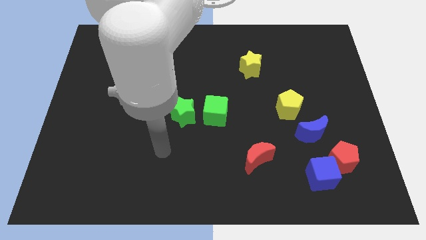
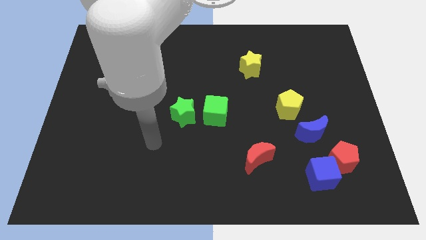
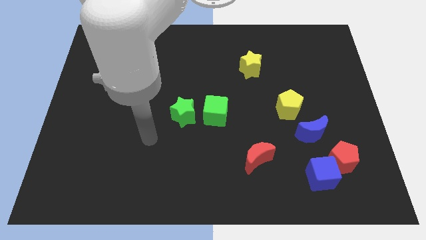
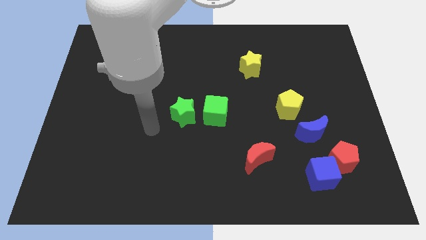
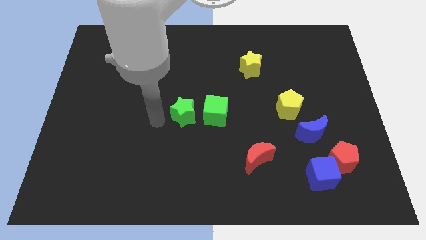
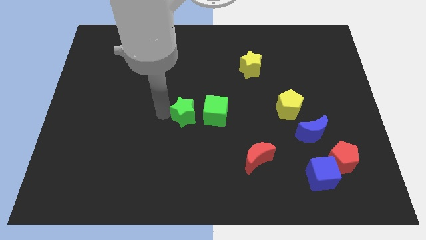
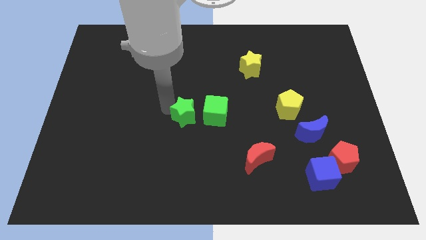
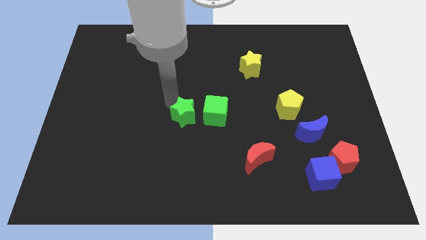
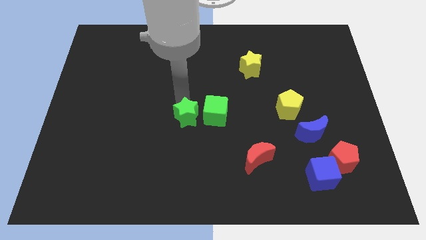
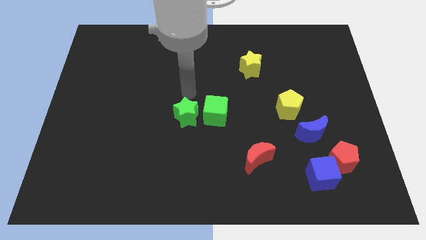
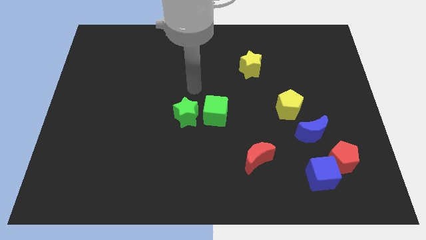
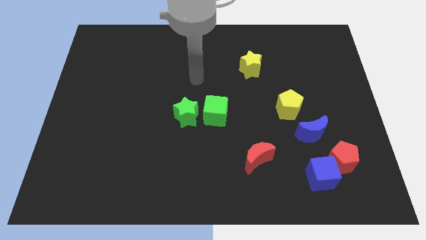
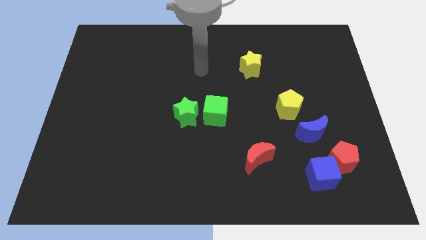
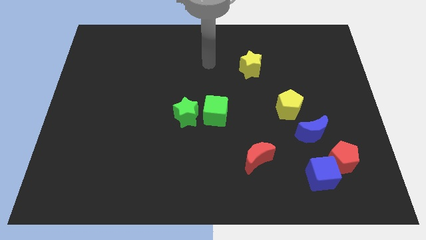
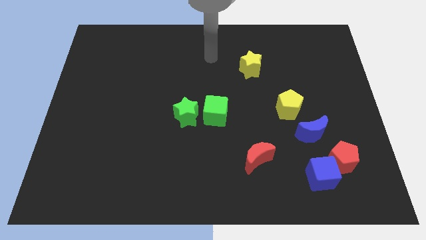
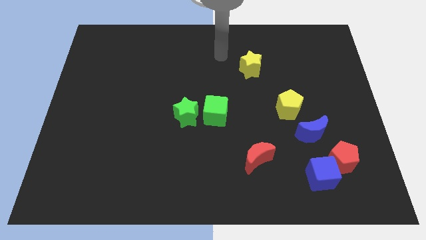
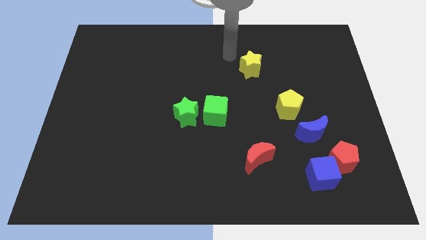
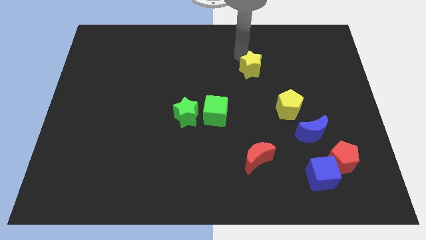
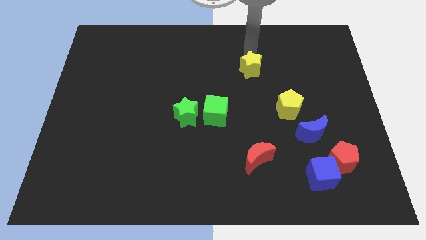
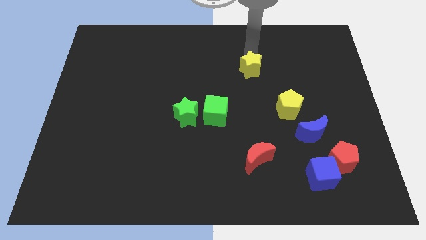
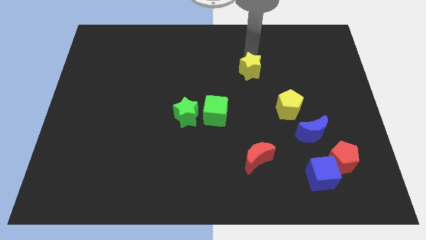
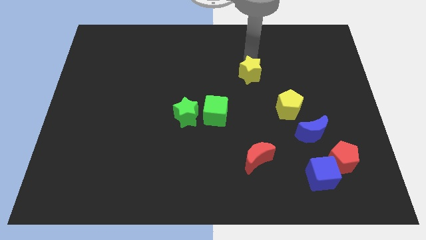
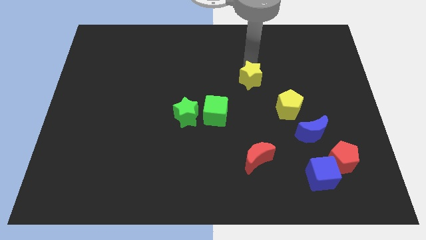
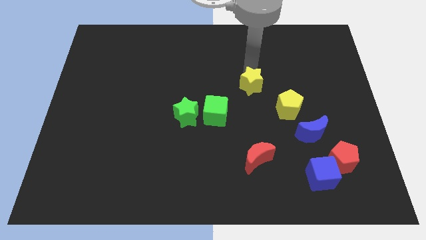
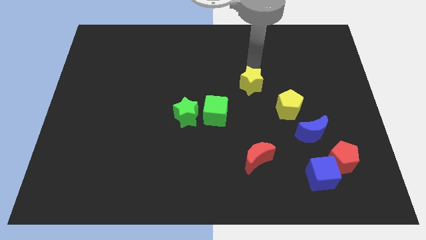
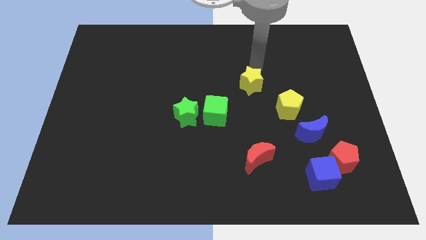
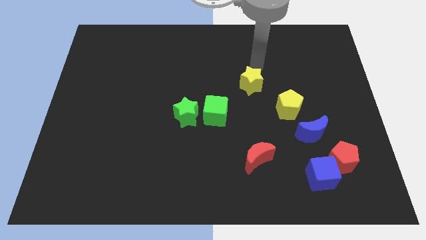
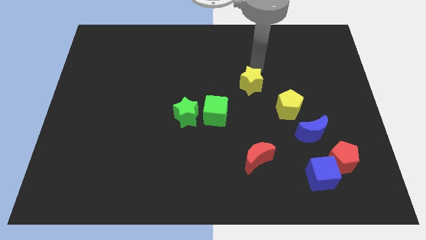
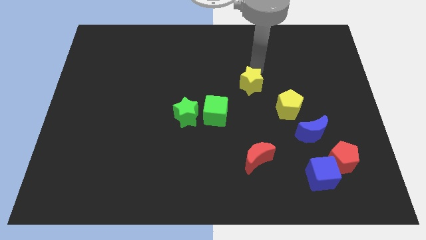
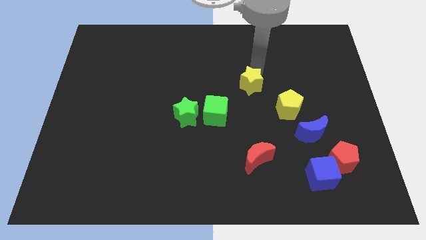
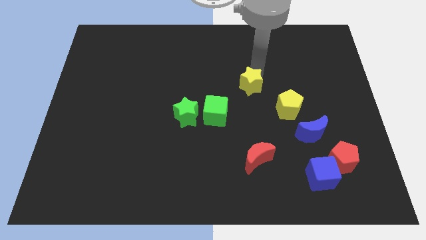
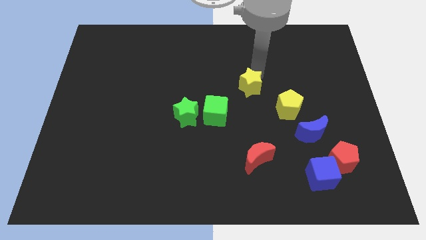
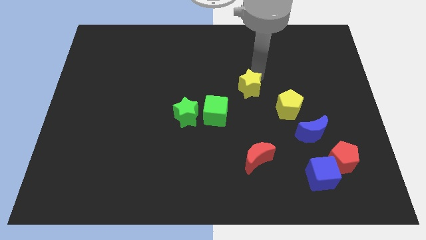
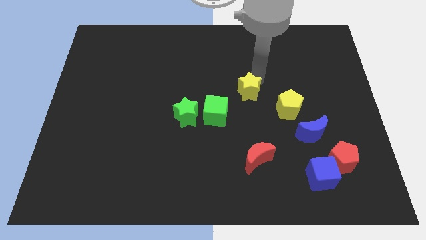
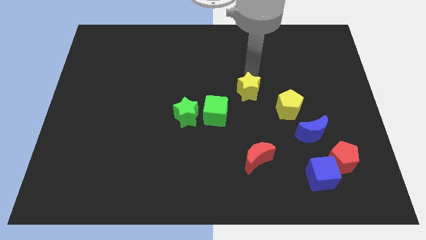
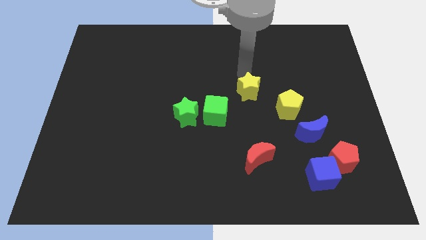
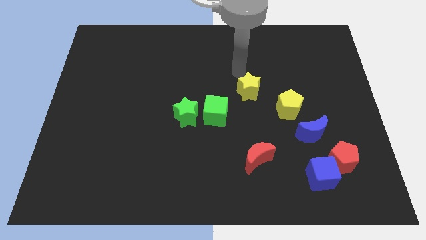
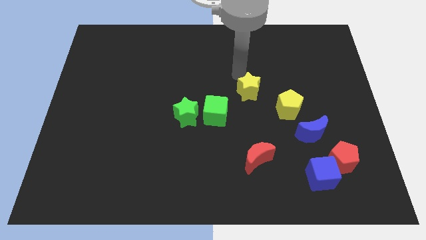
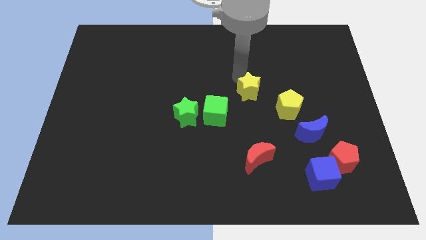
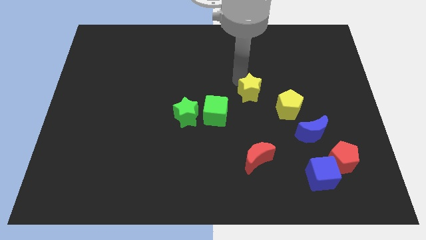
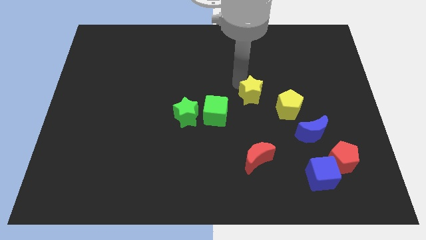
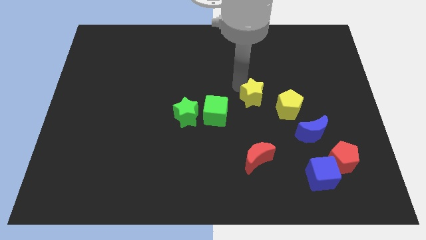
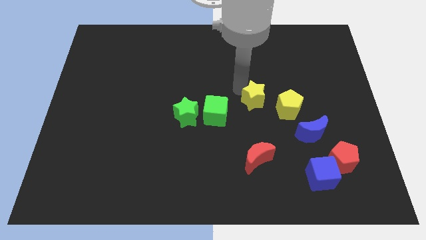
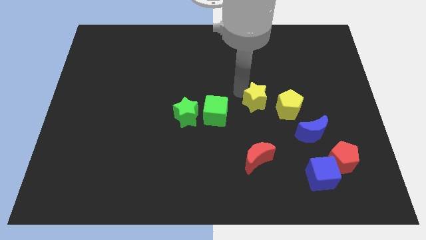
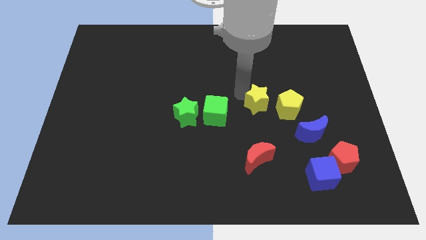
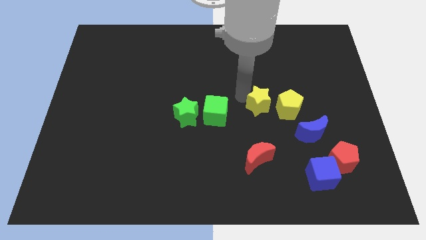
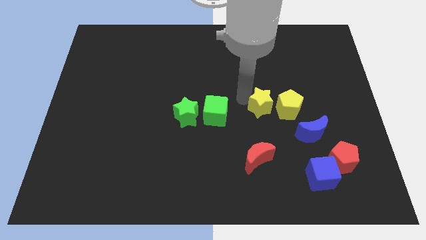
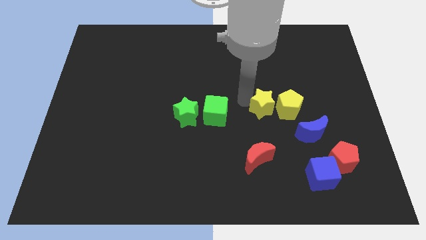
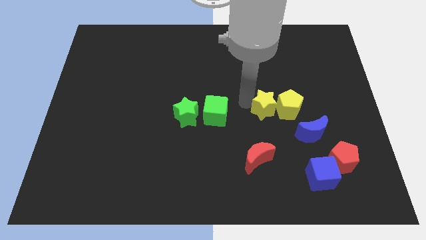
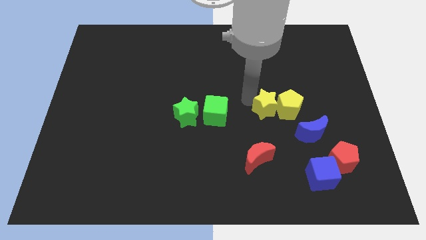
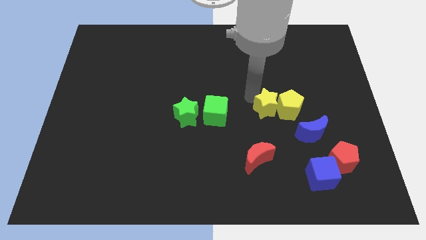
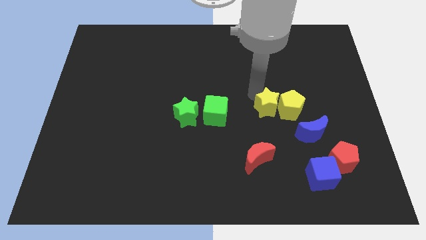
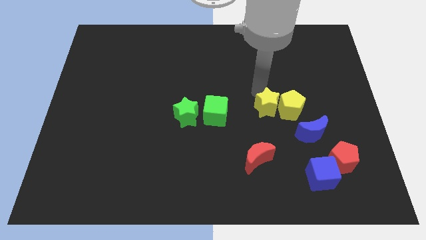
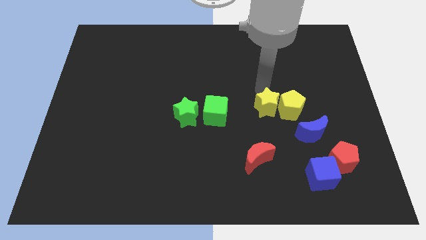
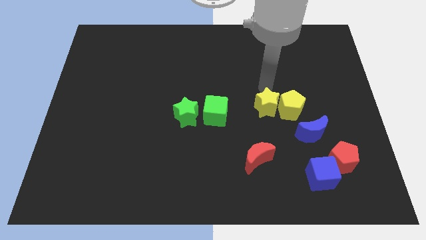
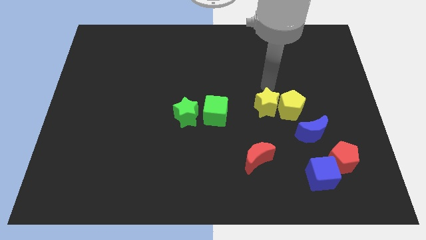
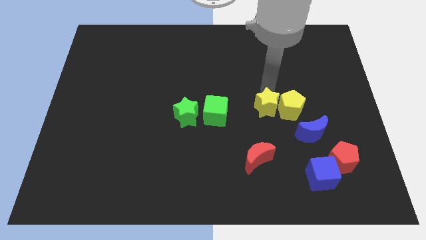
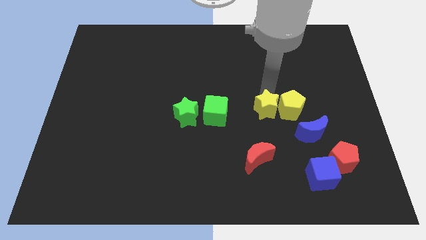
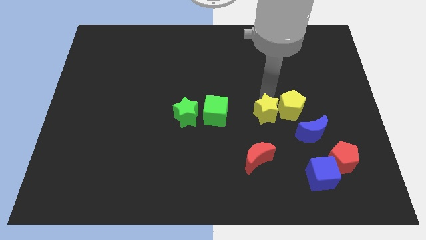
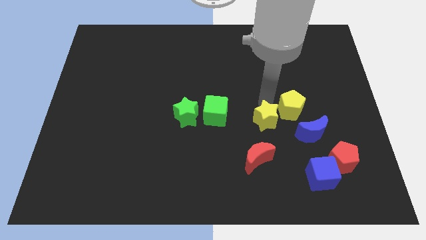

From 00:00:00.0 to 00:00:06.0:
push the yellow star to the left of the blue moon

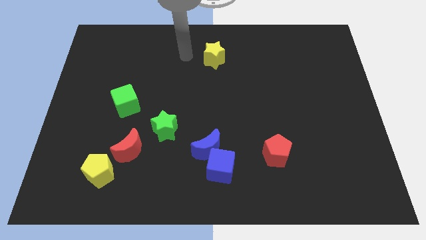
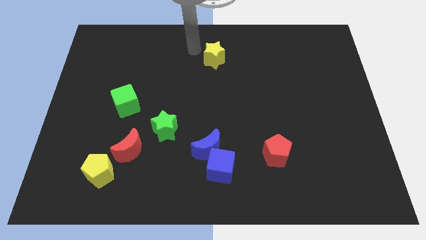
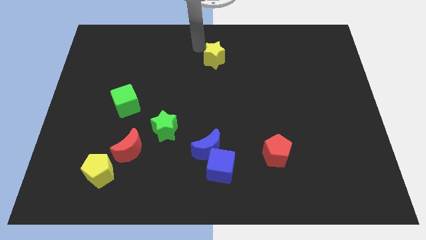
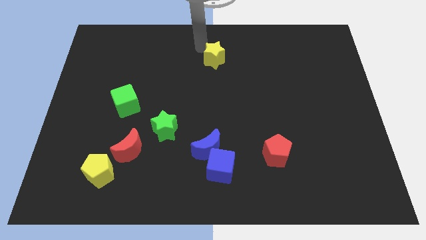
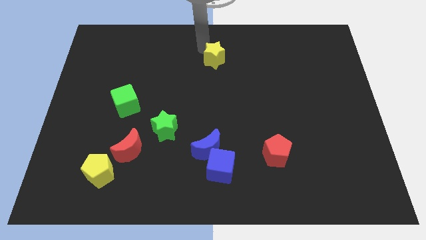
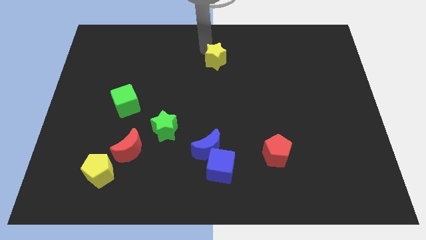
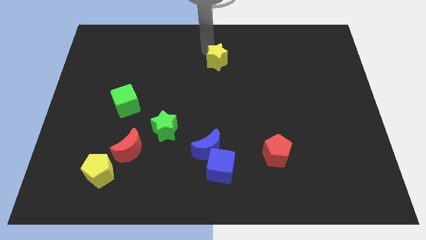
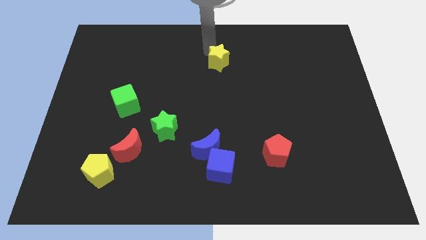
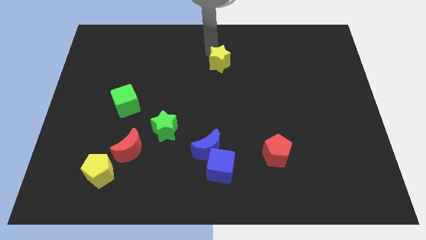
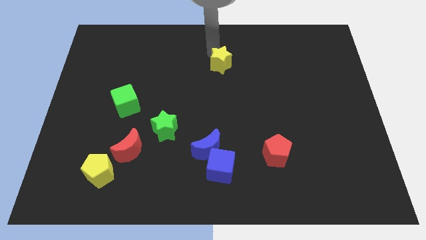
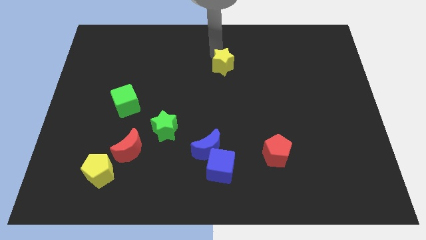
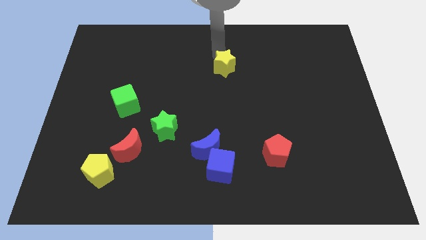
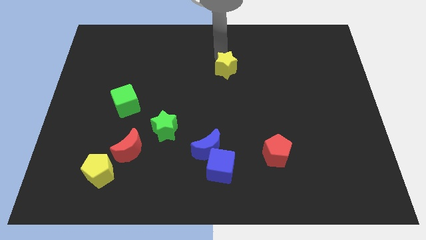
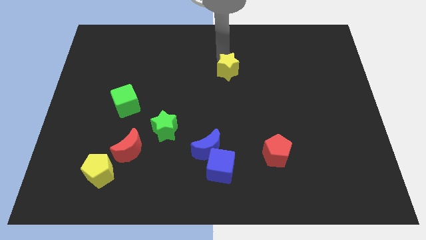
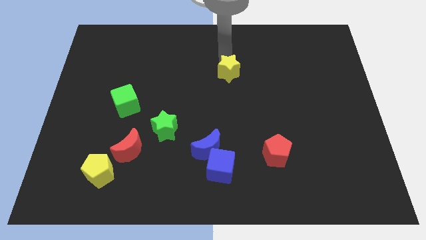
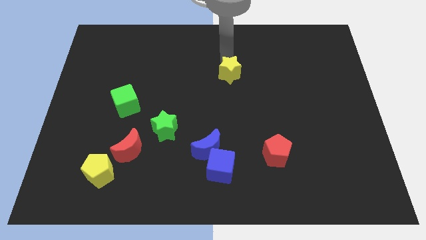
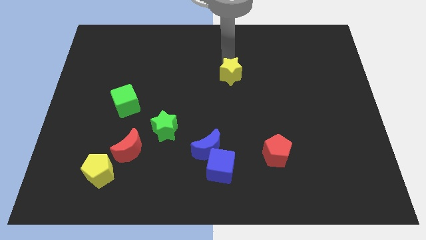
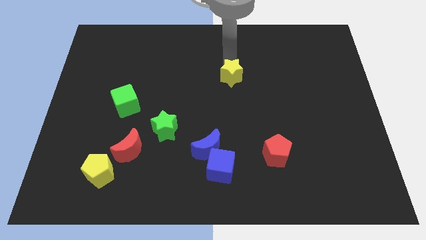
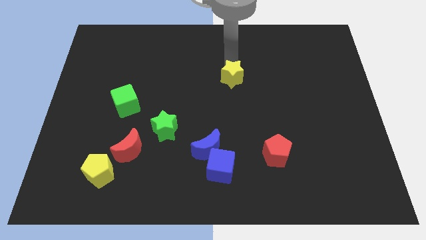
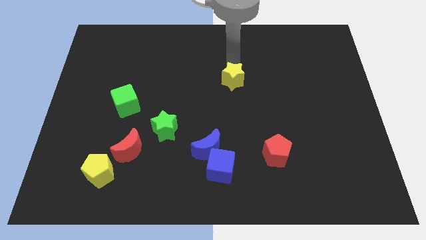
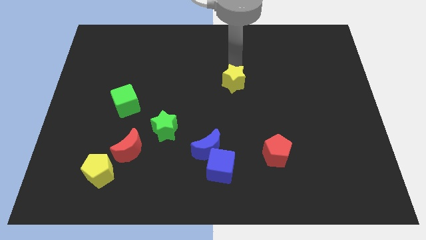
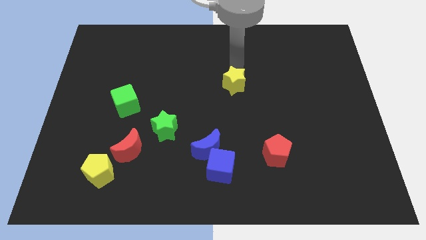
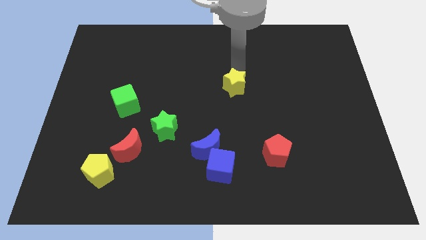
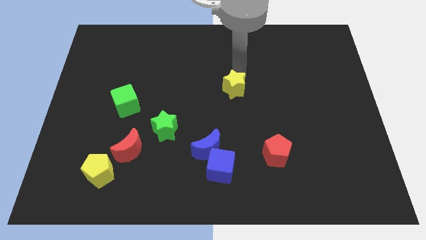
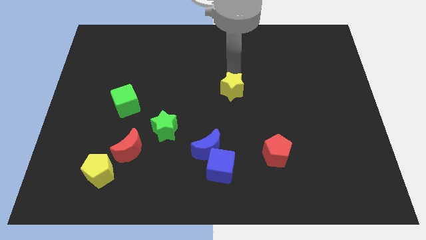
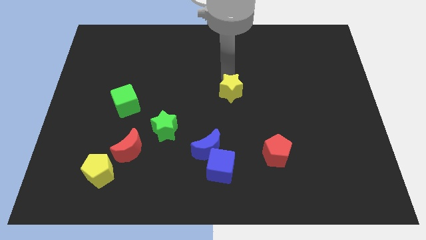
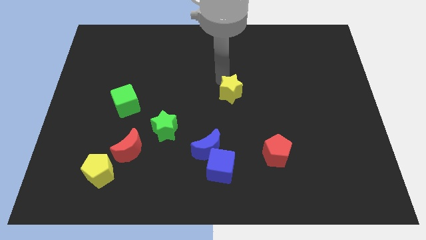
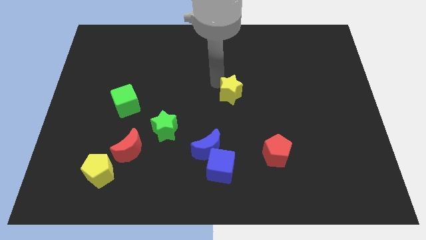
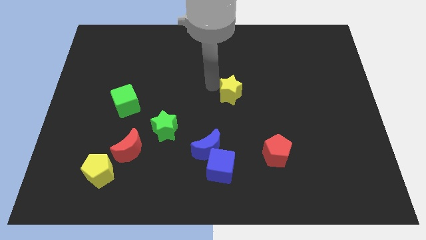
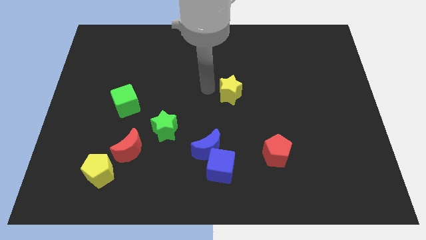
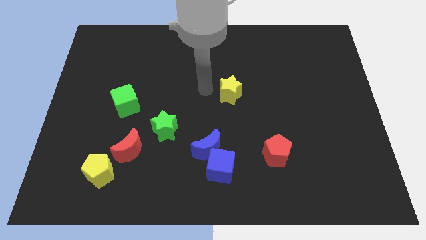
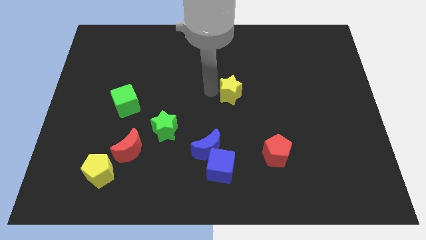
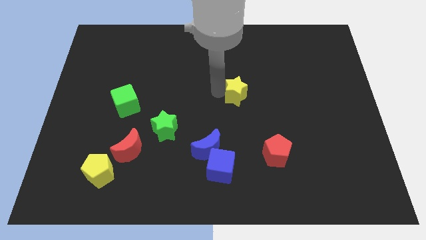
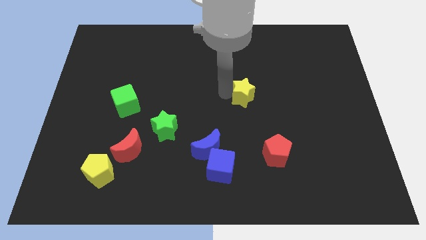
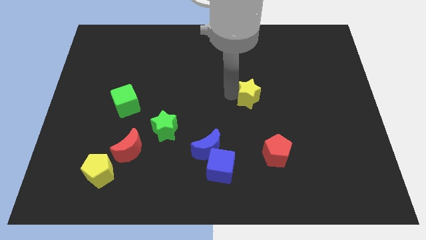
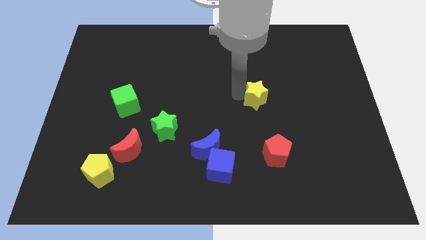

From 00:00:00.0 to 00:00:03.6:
move the yellow star to the top of the red pentagon
